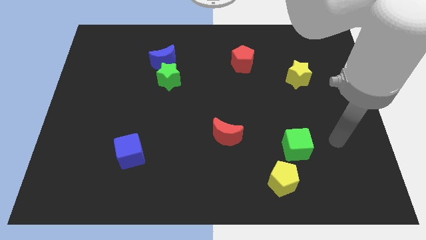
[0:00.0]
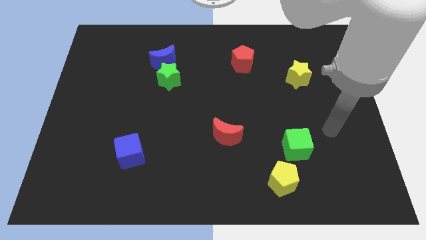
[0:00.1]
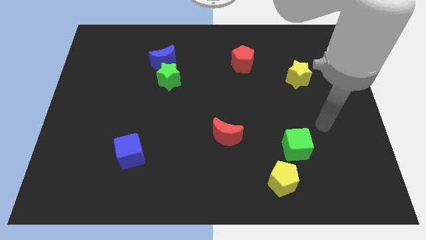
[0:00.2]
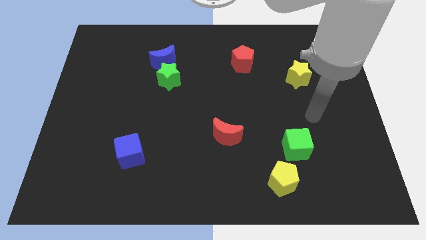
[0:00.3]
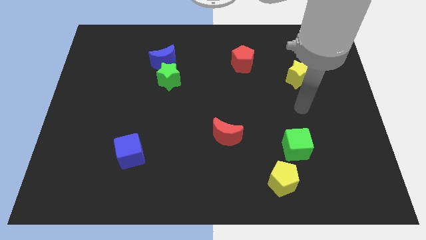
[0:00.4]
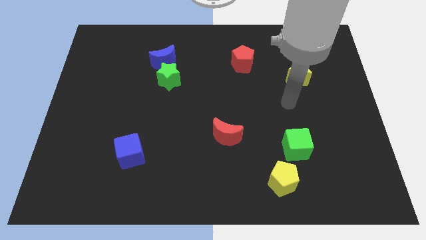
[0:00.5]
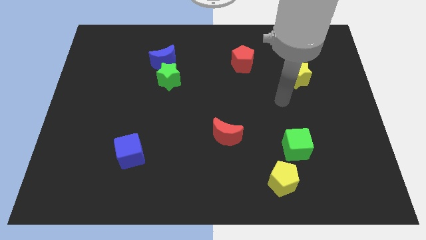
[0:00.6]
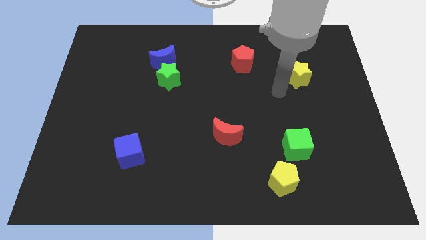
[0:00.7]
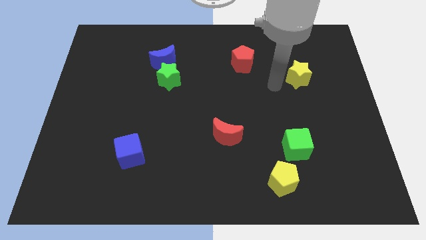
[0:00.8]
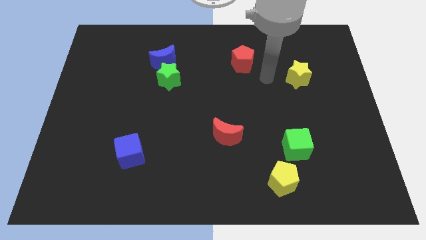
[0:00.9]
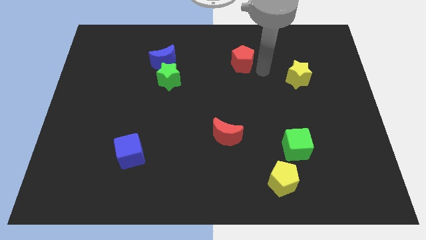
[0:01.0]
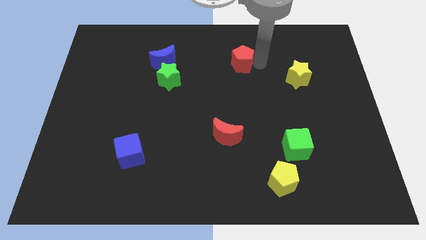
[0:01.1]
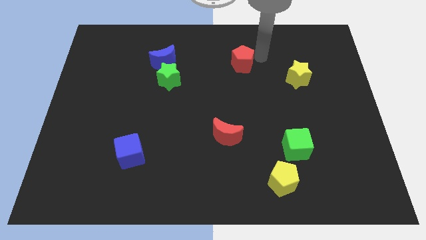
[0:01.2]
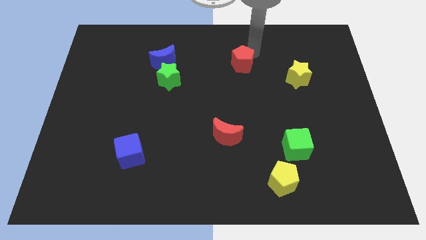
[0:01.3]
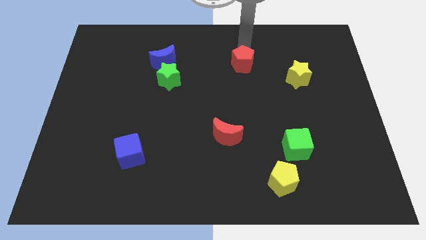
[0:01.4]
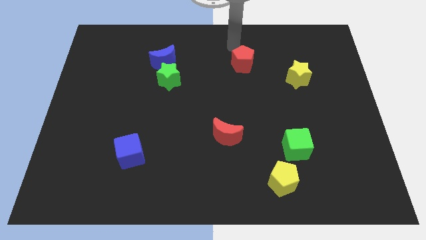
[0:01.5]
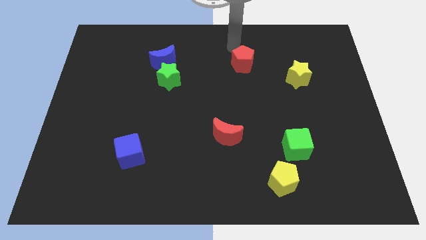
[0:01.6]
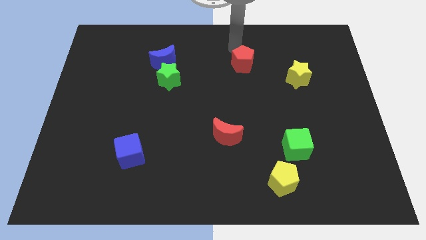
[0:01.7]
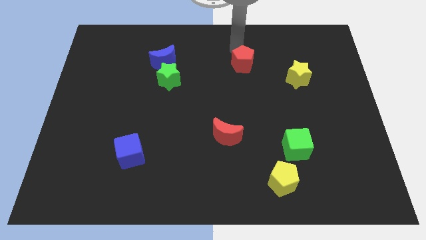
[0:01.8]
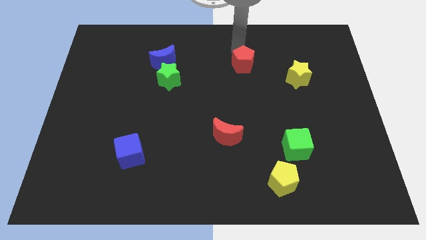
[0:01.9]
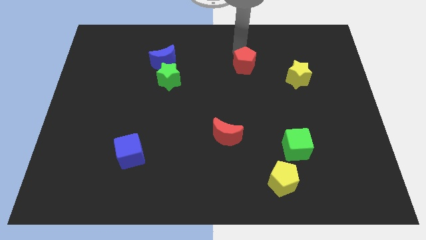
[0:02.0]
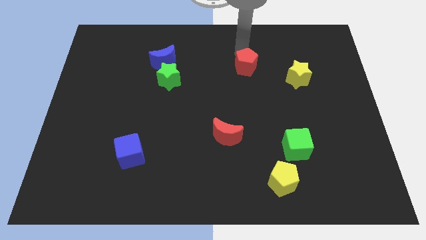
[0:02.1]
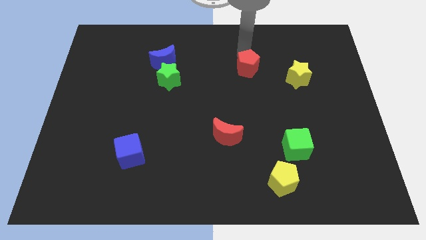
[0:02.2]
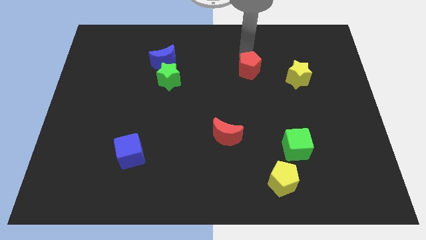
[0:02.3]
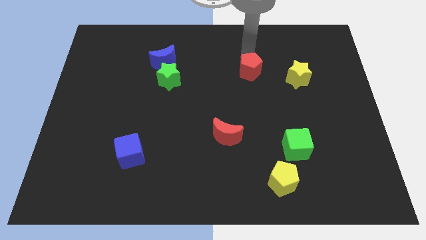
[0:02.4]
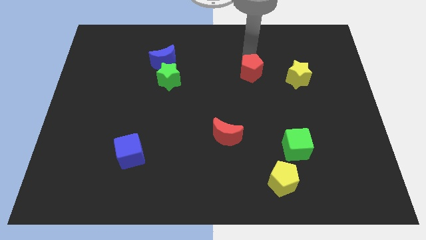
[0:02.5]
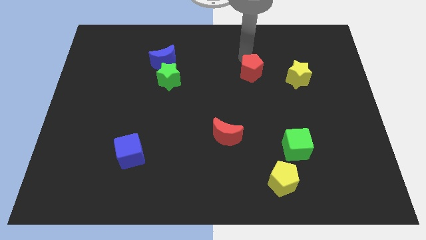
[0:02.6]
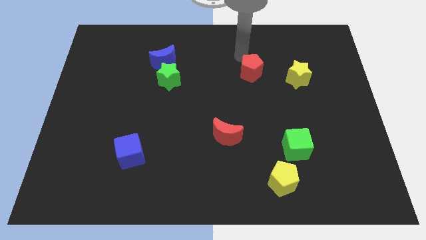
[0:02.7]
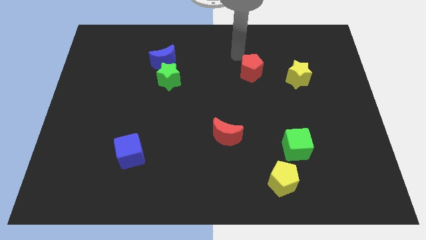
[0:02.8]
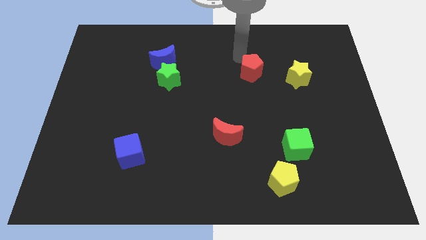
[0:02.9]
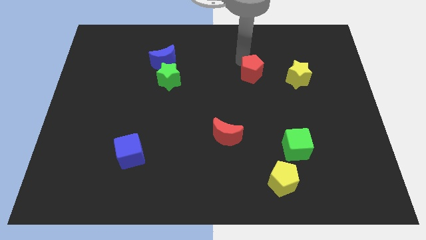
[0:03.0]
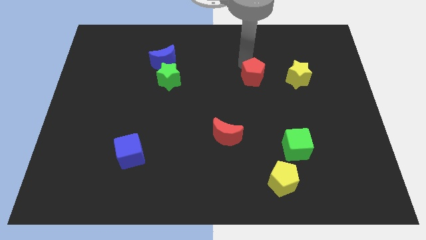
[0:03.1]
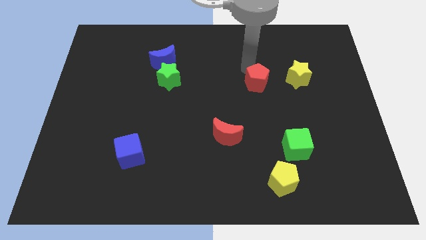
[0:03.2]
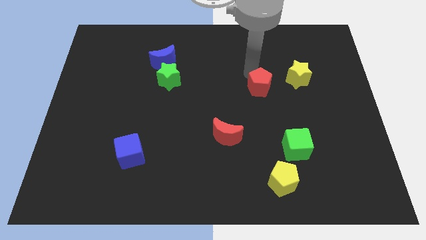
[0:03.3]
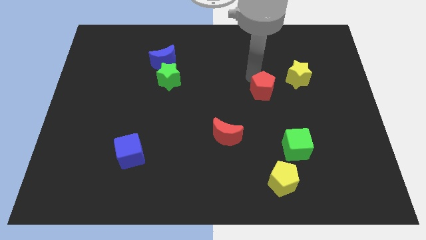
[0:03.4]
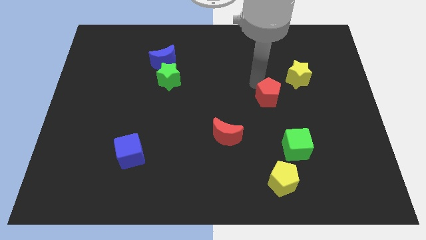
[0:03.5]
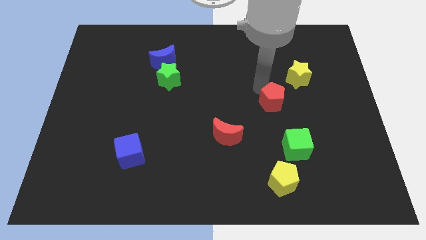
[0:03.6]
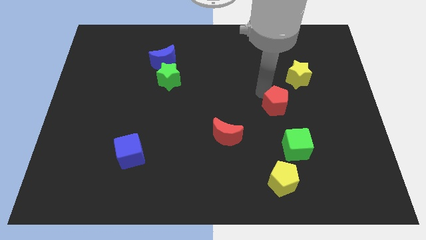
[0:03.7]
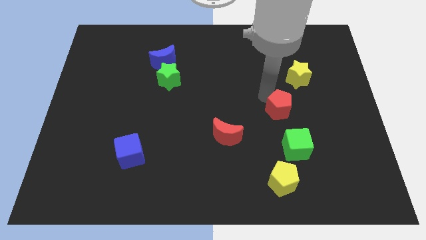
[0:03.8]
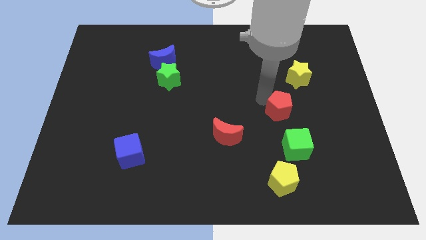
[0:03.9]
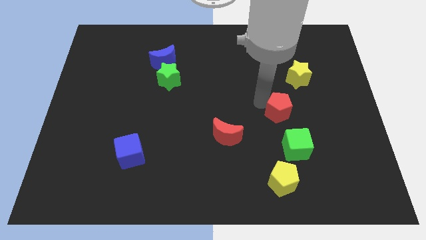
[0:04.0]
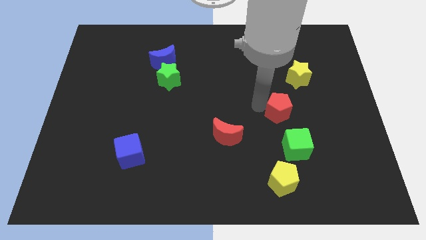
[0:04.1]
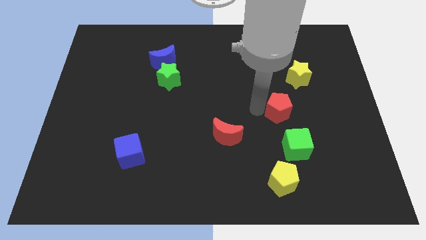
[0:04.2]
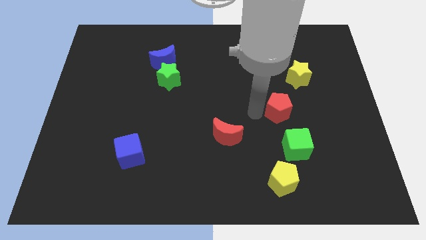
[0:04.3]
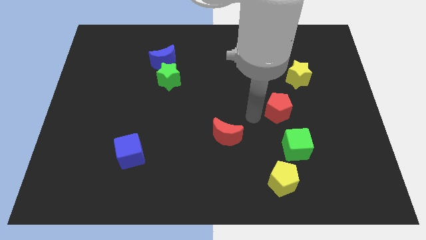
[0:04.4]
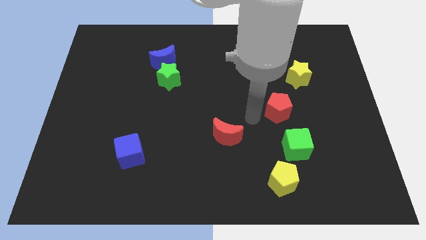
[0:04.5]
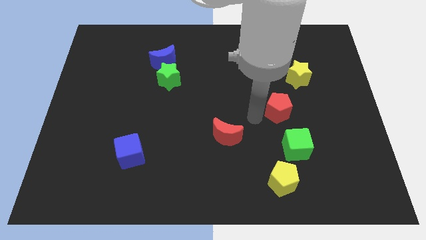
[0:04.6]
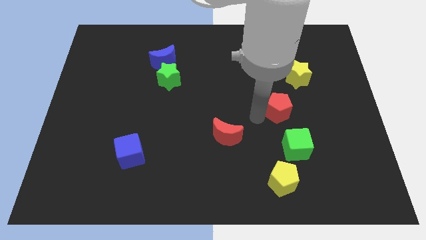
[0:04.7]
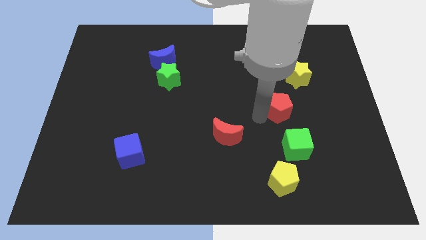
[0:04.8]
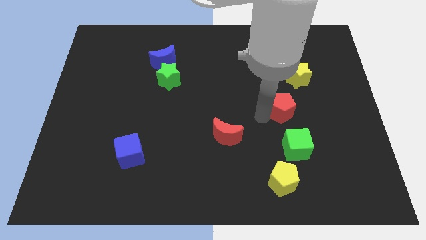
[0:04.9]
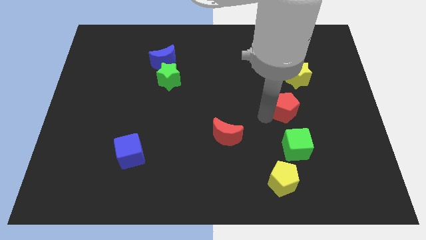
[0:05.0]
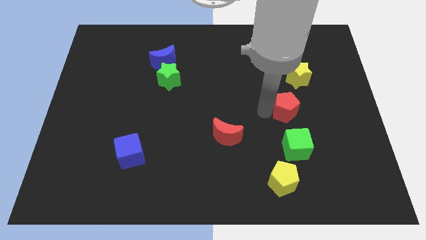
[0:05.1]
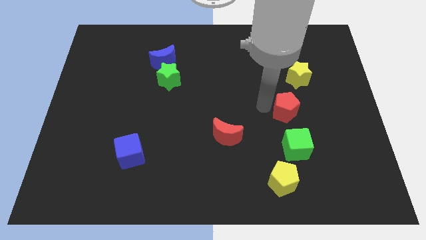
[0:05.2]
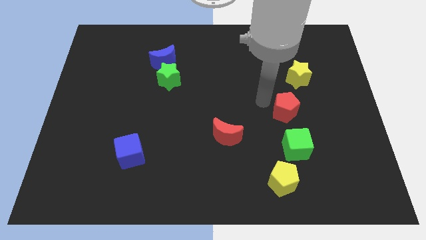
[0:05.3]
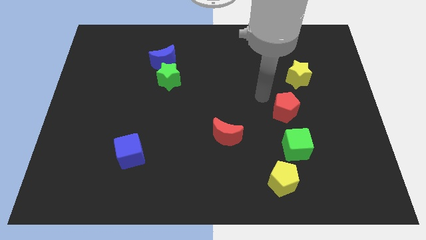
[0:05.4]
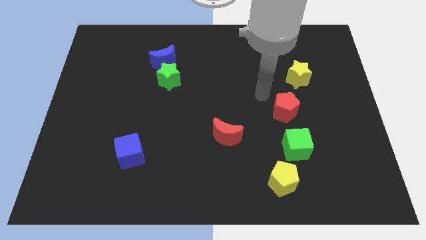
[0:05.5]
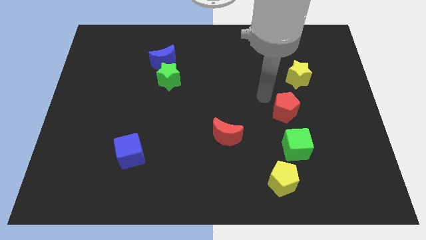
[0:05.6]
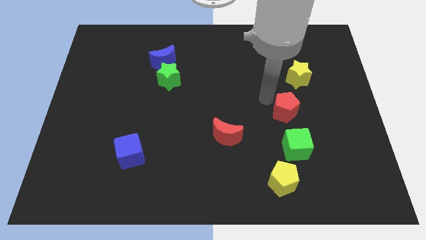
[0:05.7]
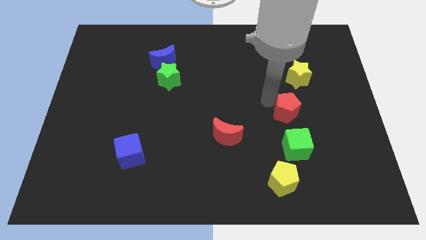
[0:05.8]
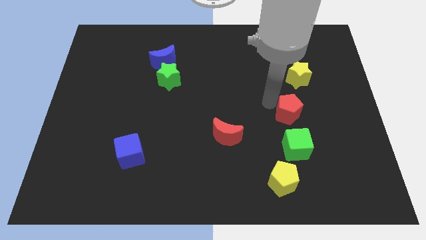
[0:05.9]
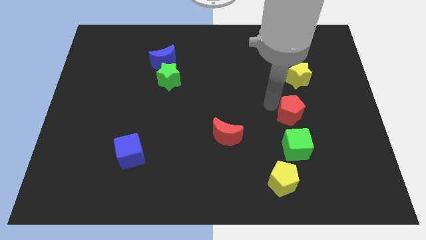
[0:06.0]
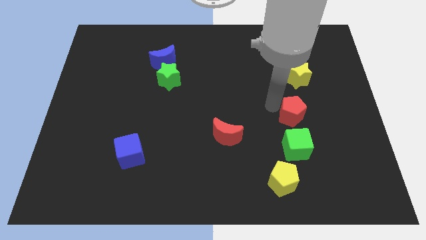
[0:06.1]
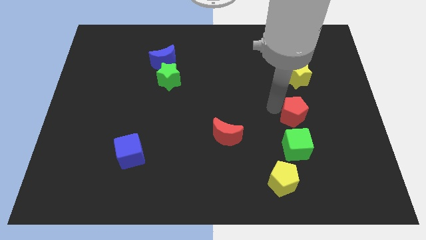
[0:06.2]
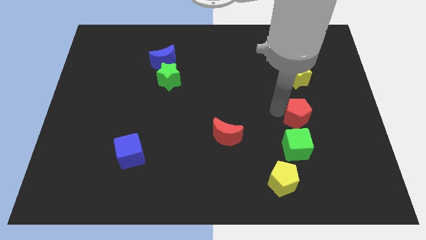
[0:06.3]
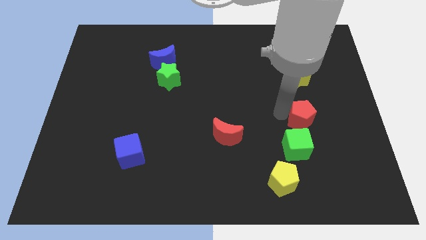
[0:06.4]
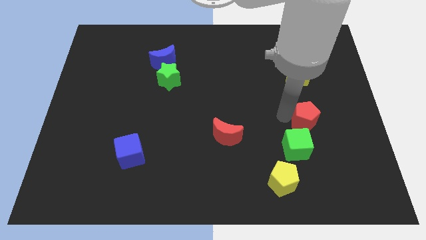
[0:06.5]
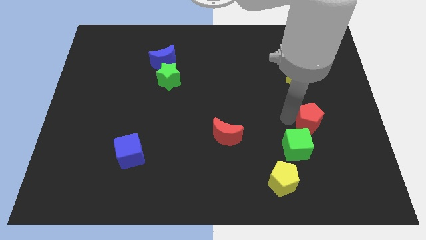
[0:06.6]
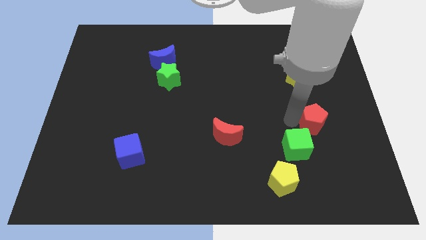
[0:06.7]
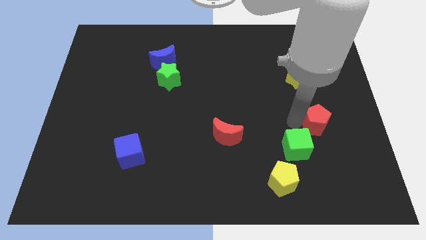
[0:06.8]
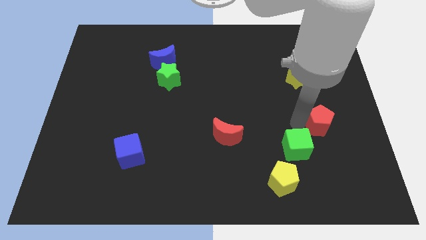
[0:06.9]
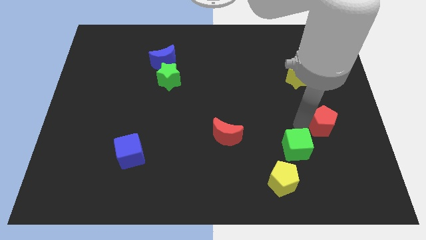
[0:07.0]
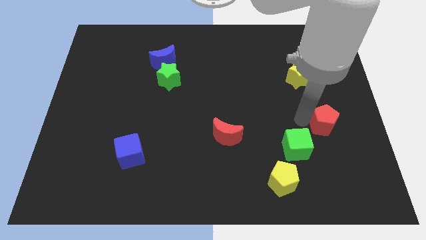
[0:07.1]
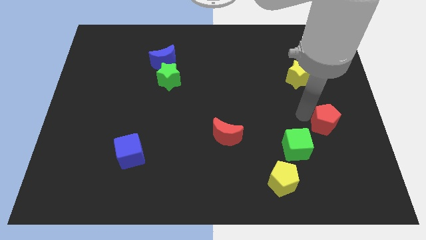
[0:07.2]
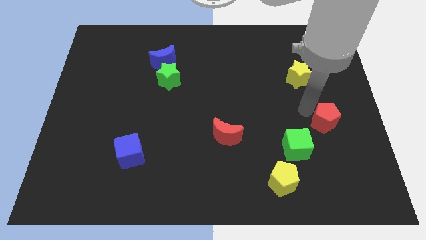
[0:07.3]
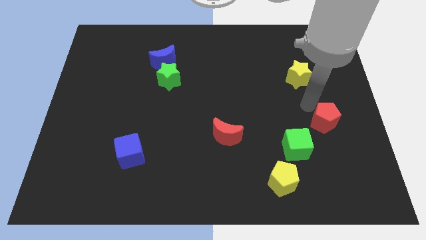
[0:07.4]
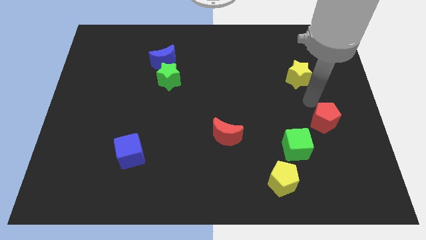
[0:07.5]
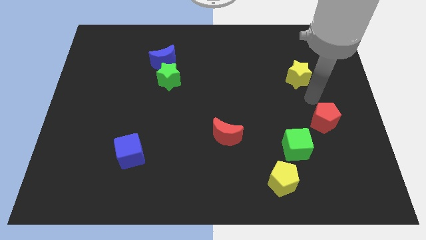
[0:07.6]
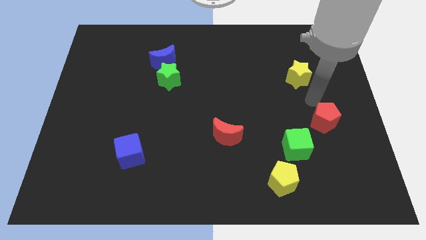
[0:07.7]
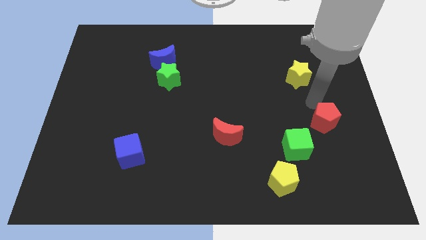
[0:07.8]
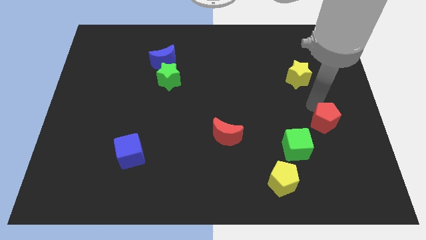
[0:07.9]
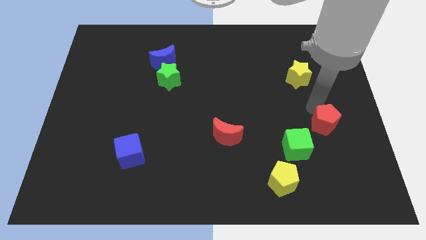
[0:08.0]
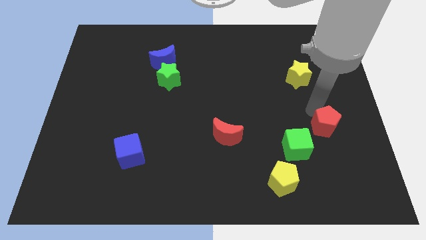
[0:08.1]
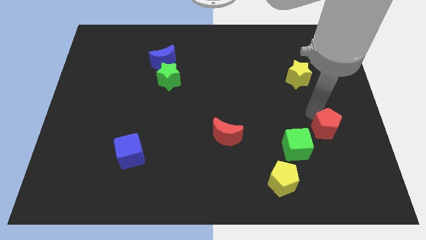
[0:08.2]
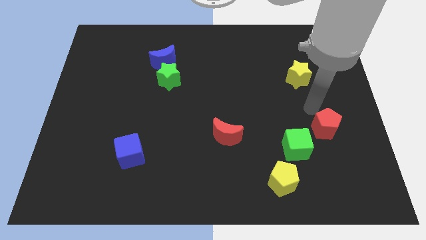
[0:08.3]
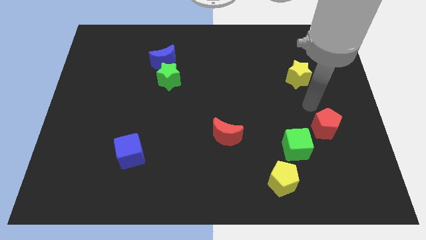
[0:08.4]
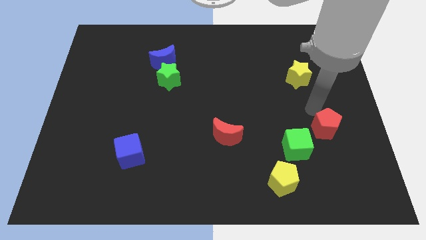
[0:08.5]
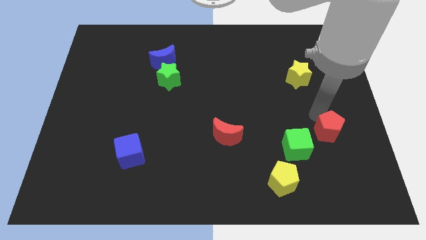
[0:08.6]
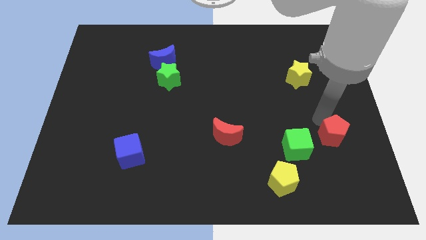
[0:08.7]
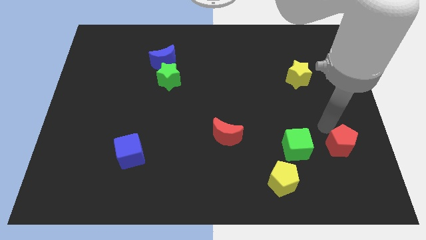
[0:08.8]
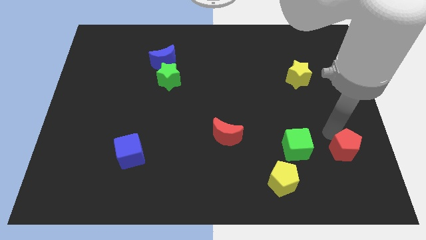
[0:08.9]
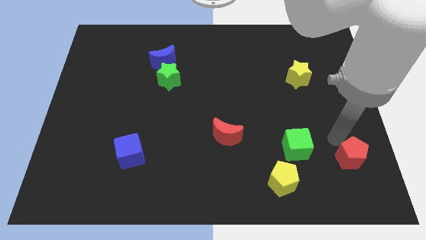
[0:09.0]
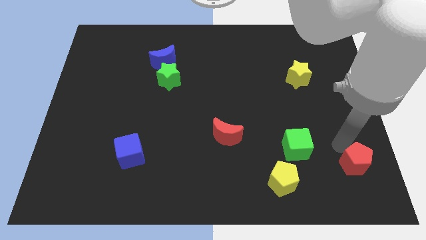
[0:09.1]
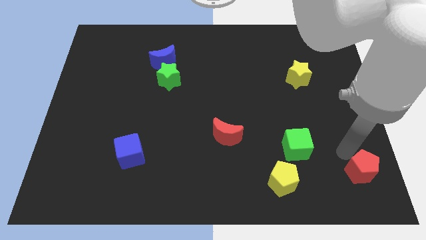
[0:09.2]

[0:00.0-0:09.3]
slide the red pentagon to the bottom right corner
